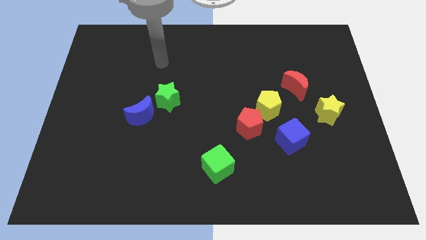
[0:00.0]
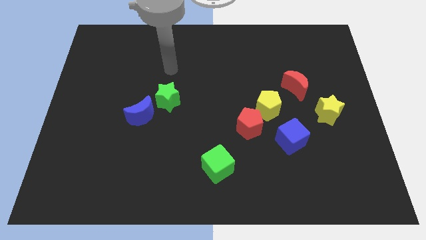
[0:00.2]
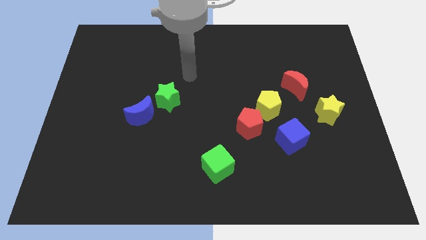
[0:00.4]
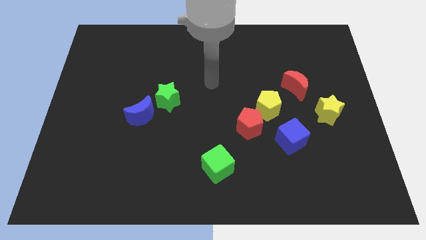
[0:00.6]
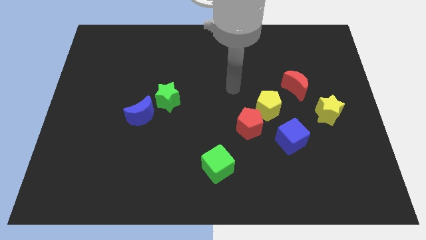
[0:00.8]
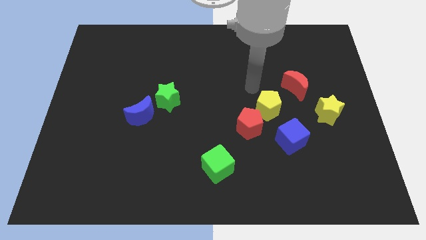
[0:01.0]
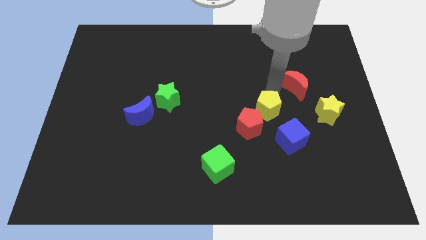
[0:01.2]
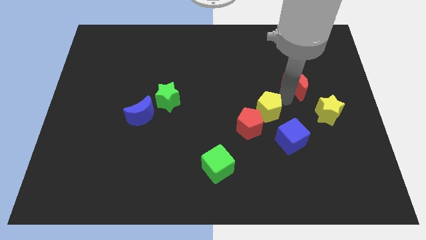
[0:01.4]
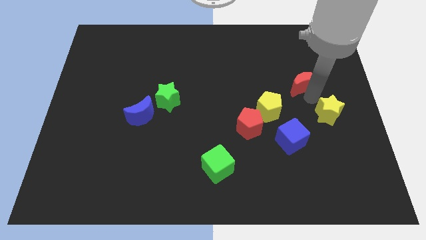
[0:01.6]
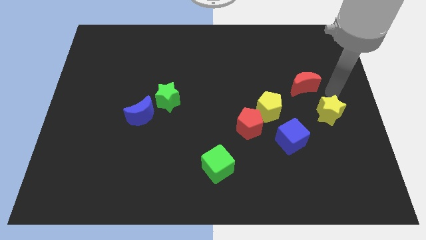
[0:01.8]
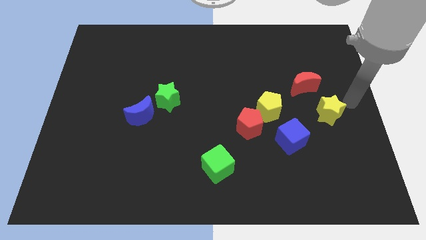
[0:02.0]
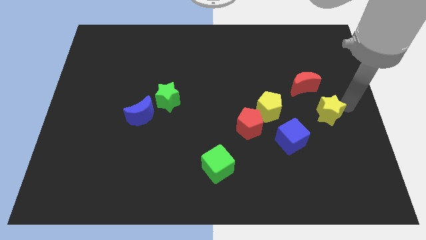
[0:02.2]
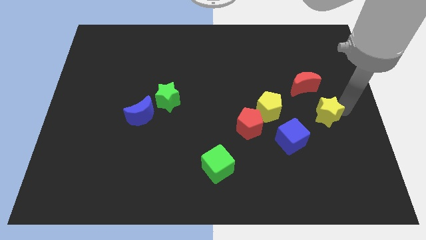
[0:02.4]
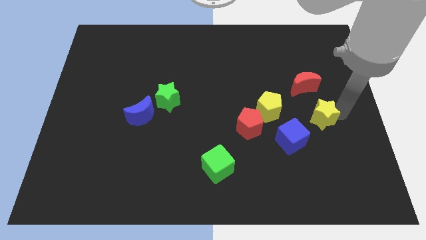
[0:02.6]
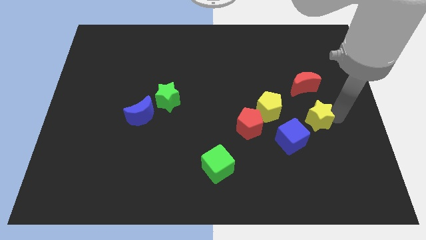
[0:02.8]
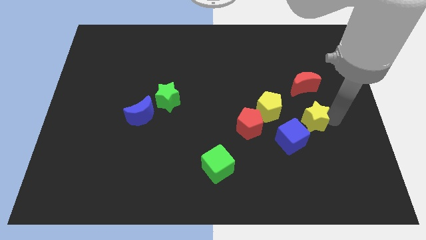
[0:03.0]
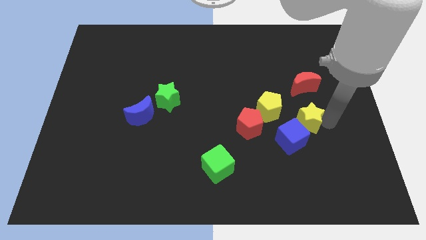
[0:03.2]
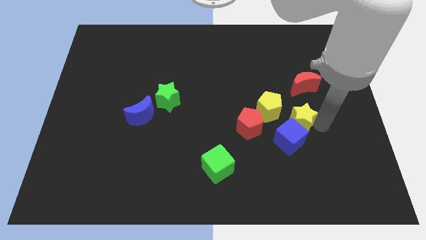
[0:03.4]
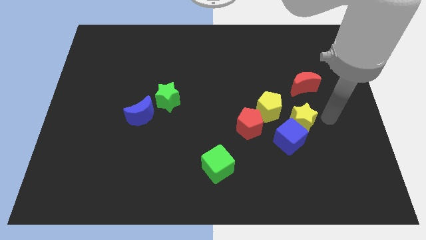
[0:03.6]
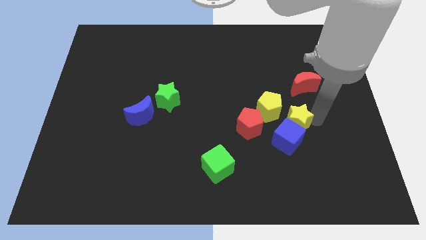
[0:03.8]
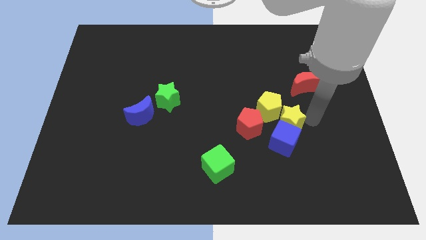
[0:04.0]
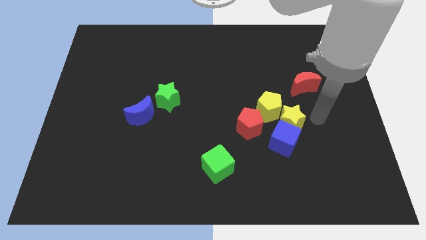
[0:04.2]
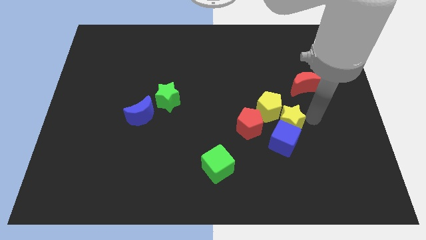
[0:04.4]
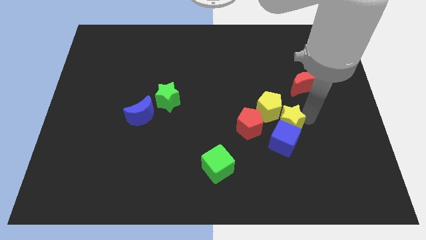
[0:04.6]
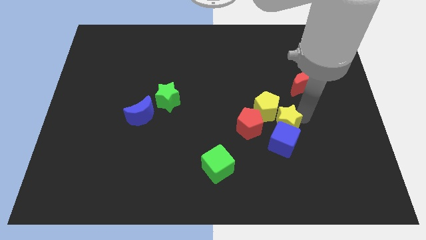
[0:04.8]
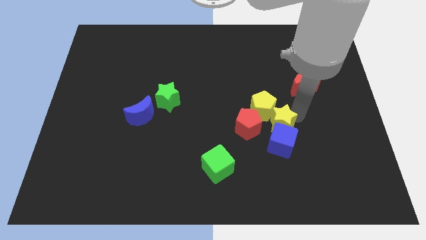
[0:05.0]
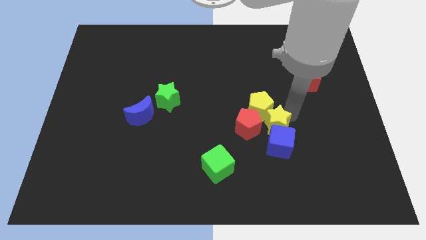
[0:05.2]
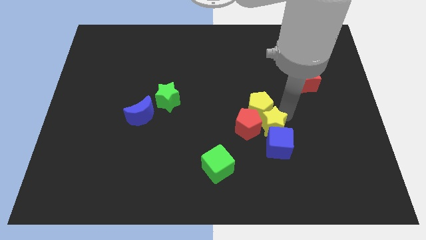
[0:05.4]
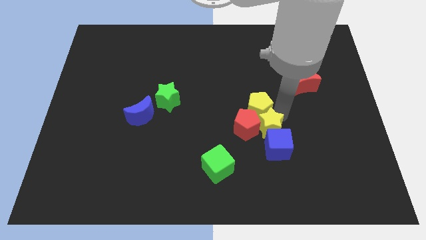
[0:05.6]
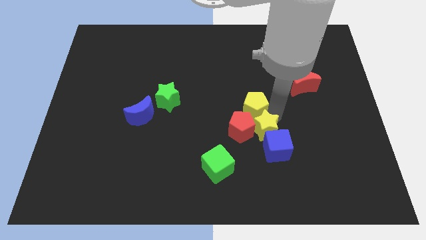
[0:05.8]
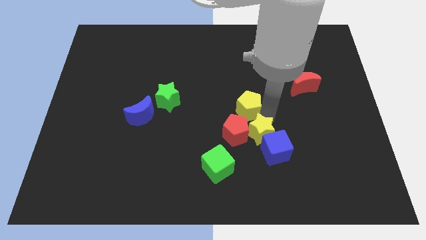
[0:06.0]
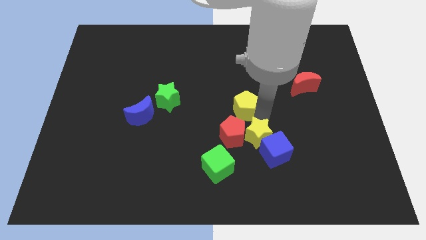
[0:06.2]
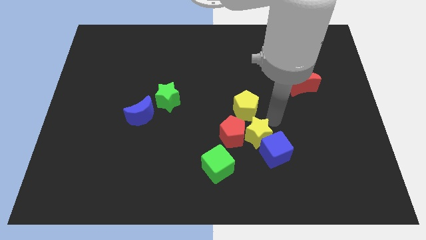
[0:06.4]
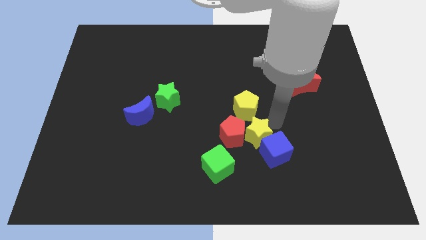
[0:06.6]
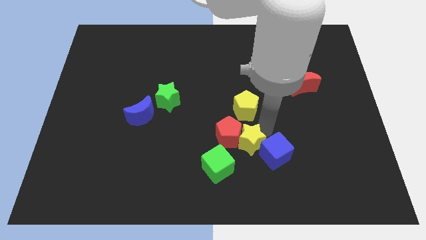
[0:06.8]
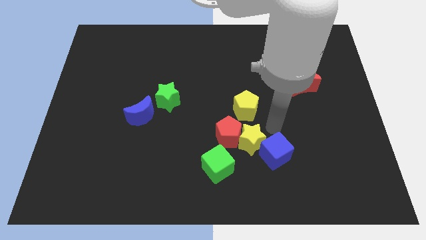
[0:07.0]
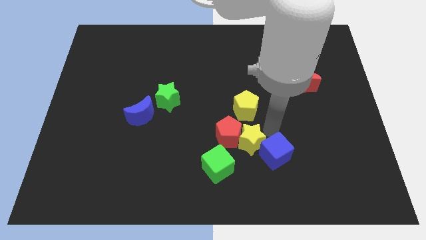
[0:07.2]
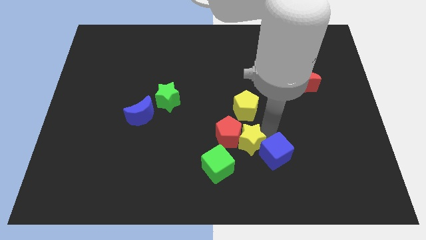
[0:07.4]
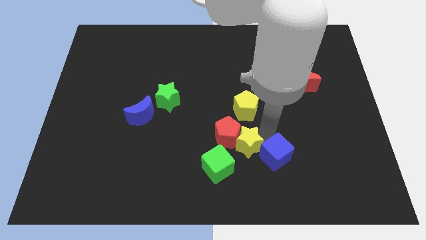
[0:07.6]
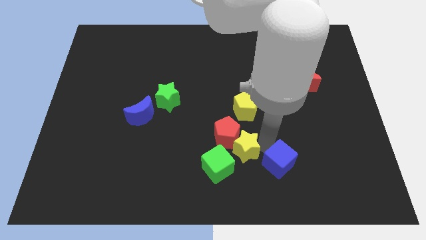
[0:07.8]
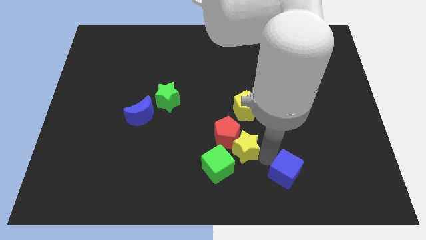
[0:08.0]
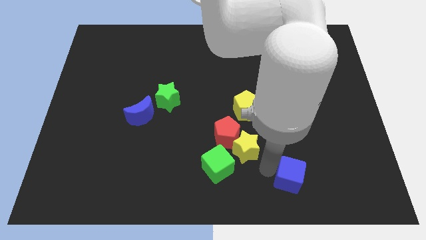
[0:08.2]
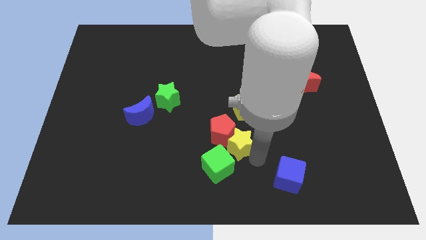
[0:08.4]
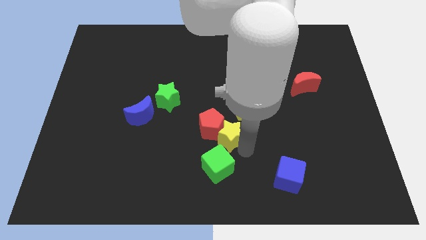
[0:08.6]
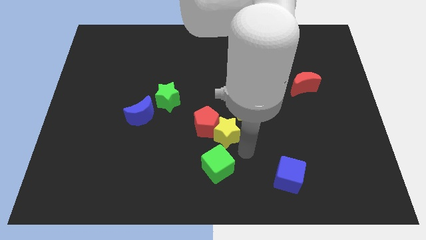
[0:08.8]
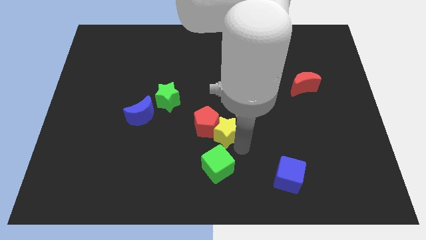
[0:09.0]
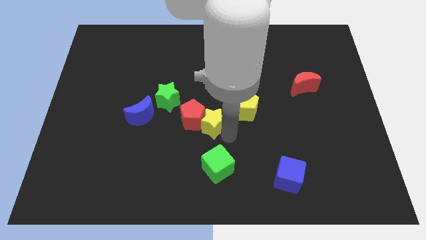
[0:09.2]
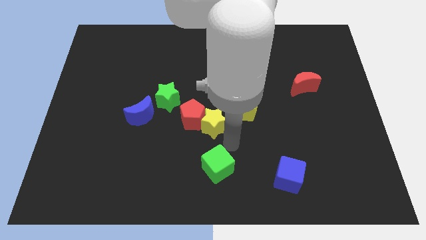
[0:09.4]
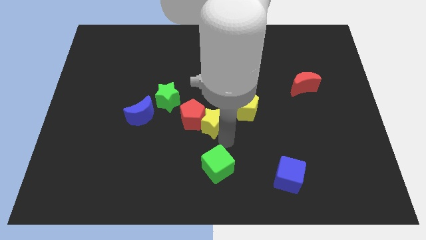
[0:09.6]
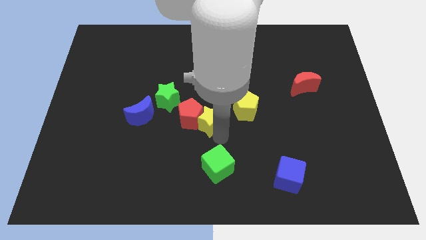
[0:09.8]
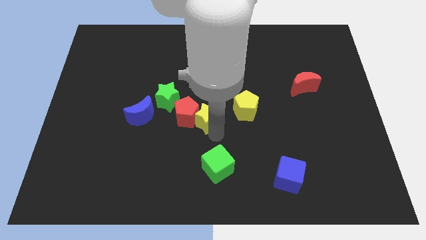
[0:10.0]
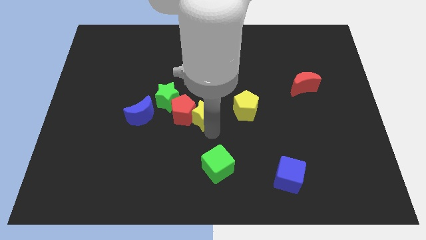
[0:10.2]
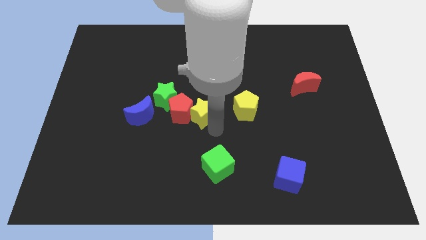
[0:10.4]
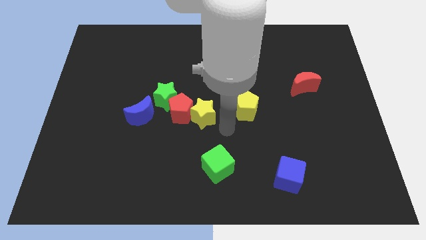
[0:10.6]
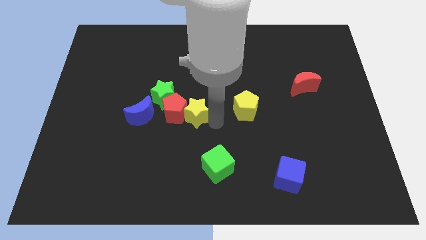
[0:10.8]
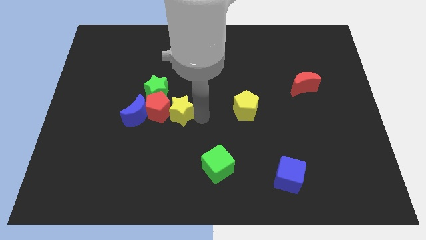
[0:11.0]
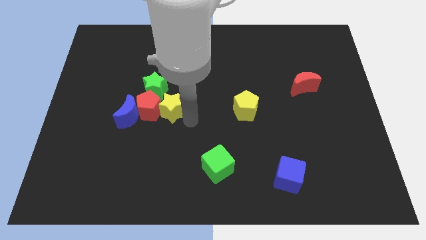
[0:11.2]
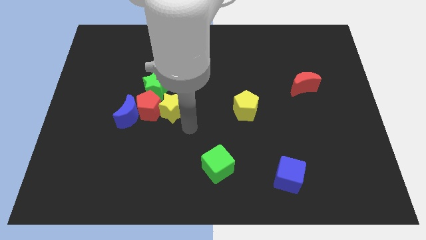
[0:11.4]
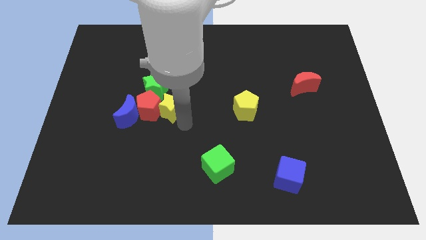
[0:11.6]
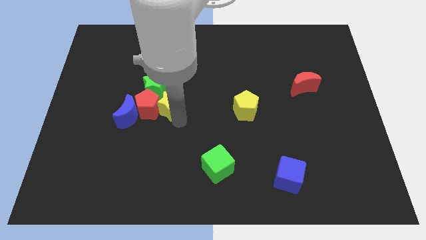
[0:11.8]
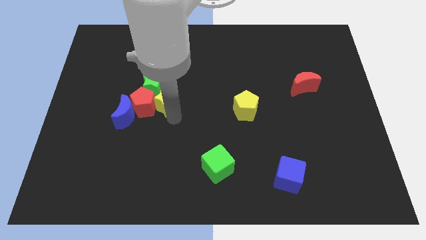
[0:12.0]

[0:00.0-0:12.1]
put the yellow star to the green star

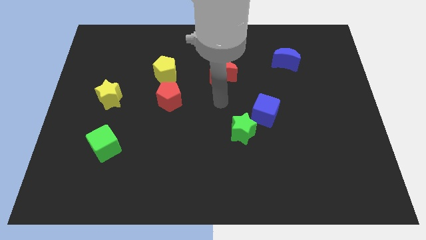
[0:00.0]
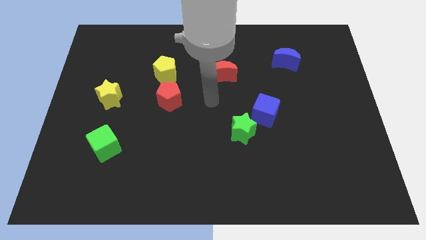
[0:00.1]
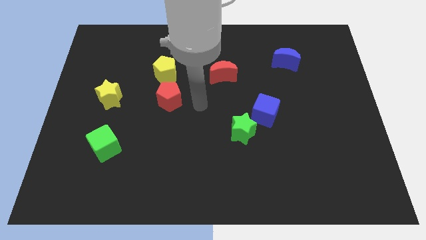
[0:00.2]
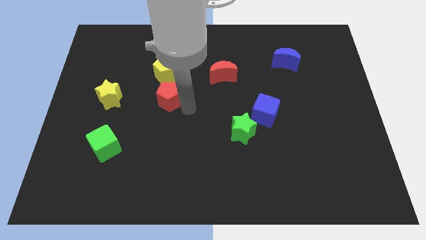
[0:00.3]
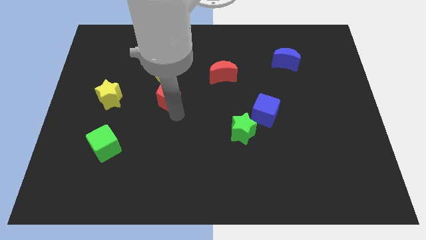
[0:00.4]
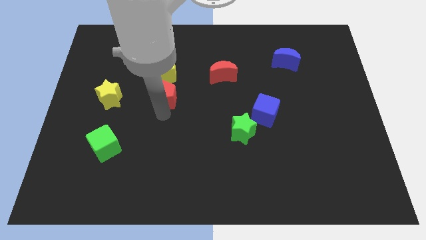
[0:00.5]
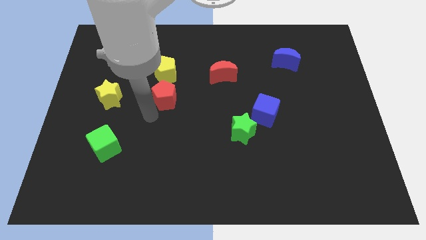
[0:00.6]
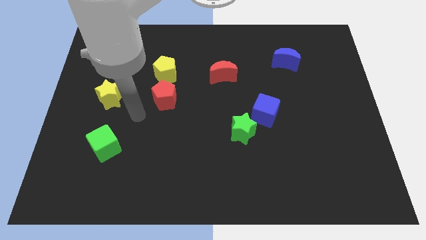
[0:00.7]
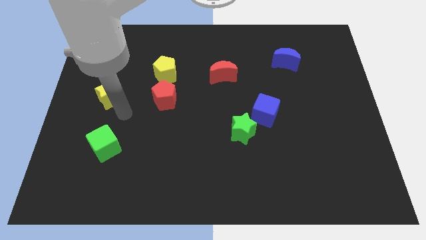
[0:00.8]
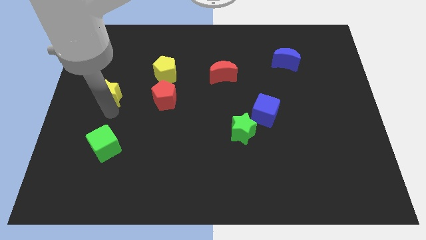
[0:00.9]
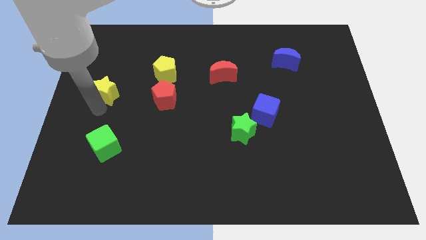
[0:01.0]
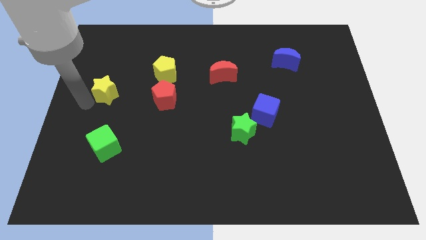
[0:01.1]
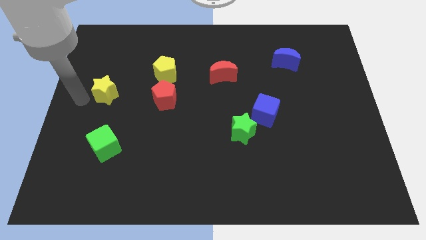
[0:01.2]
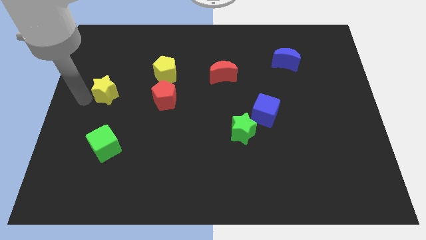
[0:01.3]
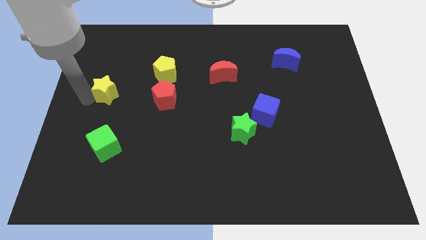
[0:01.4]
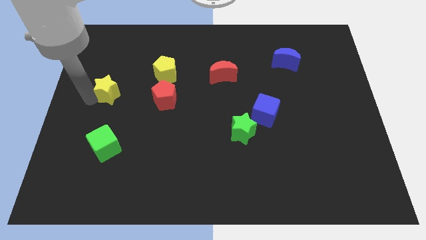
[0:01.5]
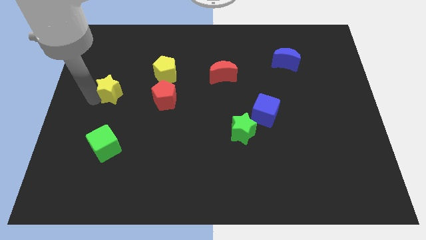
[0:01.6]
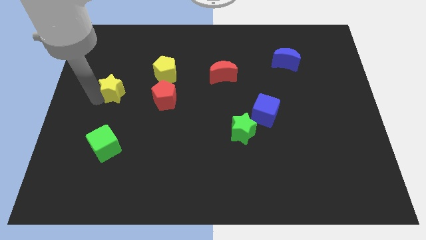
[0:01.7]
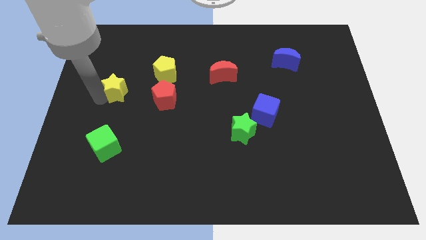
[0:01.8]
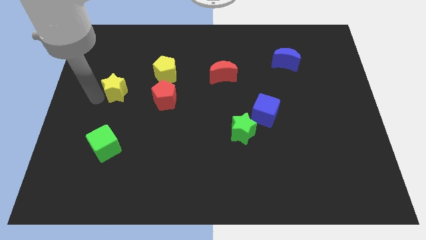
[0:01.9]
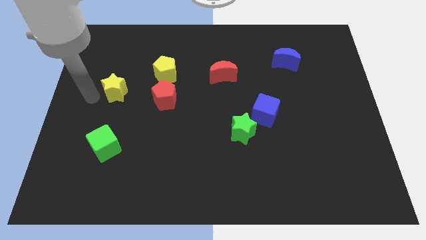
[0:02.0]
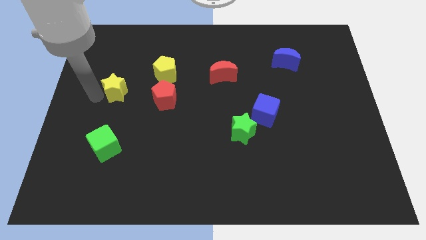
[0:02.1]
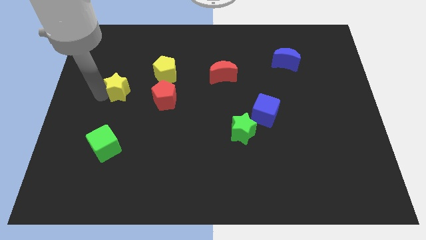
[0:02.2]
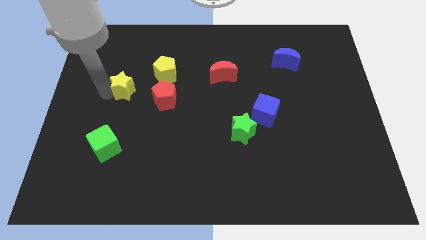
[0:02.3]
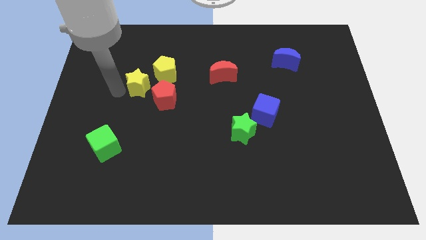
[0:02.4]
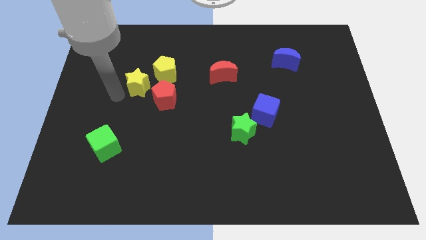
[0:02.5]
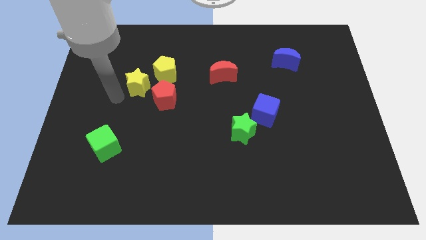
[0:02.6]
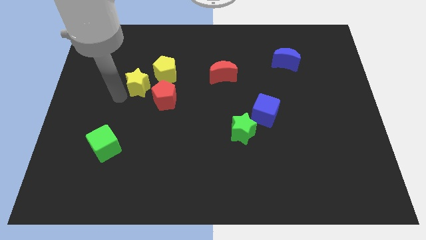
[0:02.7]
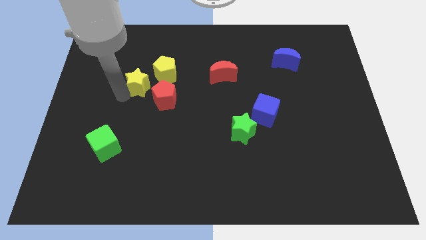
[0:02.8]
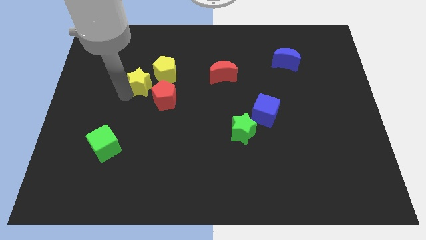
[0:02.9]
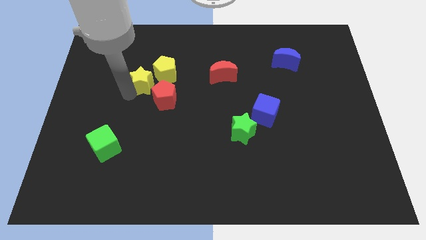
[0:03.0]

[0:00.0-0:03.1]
push the yellow star to the yellow pentagon
